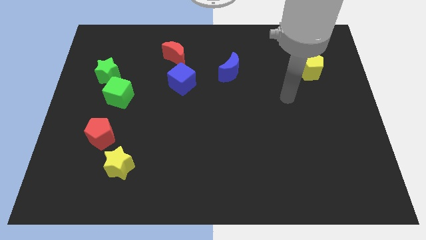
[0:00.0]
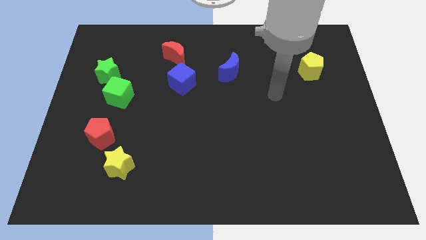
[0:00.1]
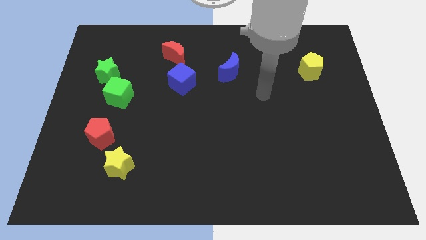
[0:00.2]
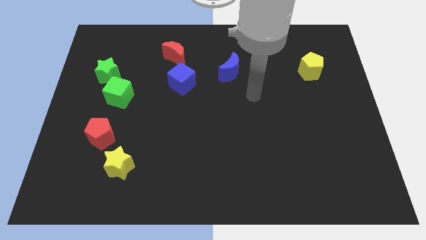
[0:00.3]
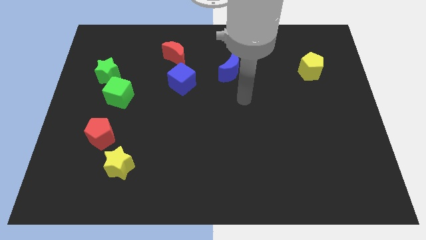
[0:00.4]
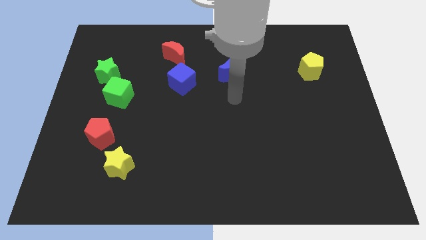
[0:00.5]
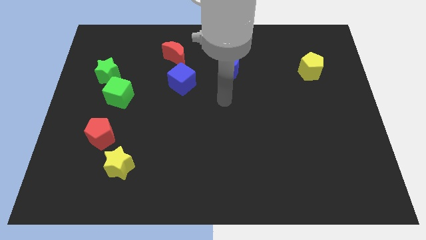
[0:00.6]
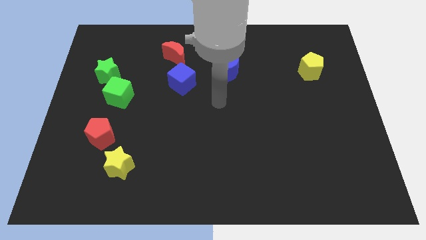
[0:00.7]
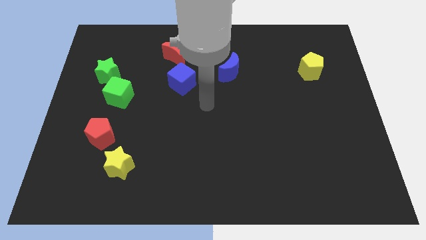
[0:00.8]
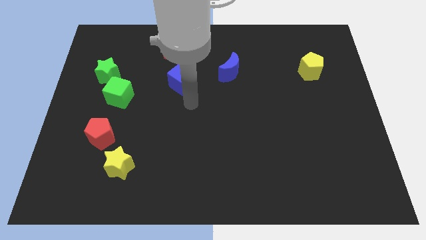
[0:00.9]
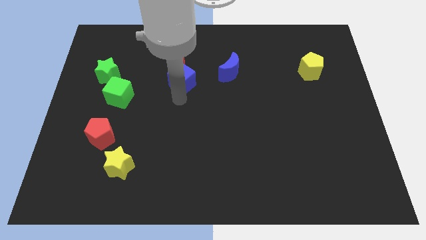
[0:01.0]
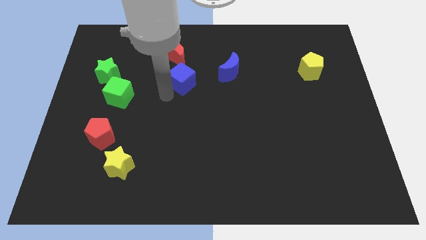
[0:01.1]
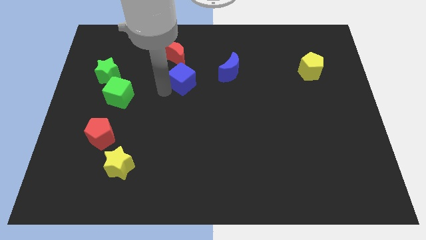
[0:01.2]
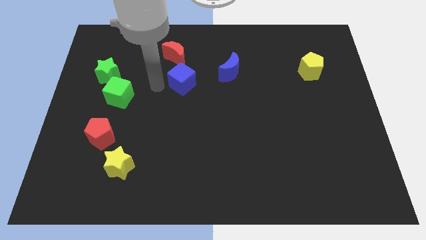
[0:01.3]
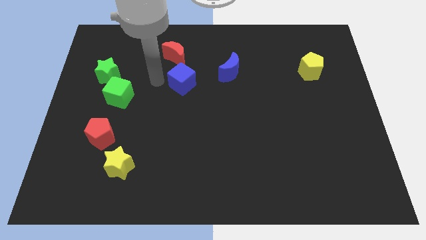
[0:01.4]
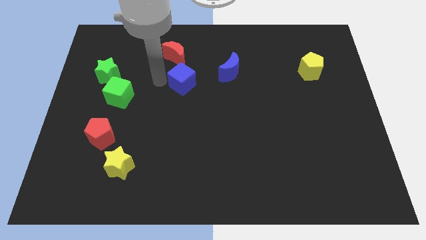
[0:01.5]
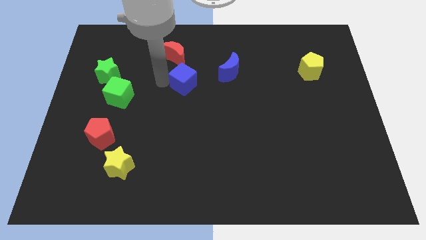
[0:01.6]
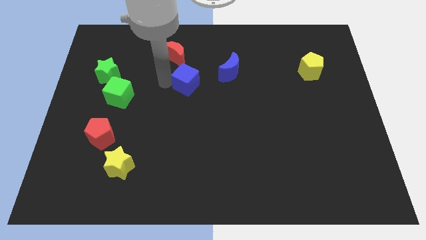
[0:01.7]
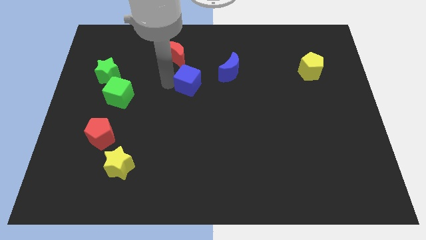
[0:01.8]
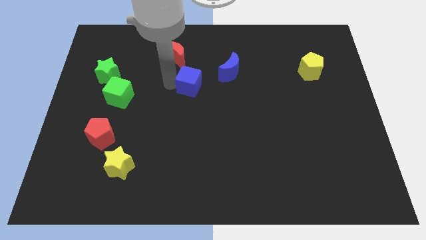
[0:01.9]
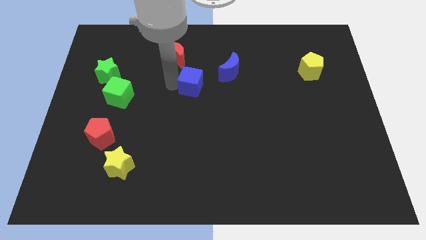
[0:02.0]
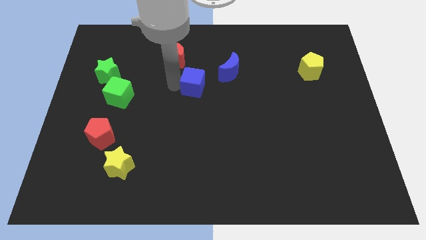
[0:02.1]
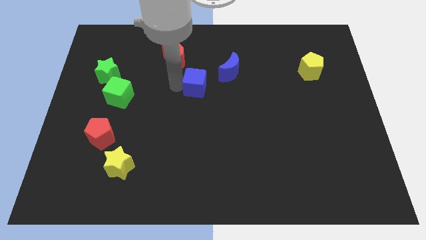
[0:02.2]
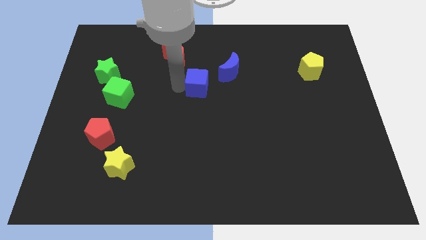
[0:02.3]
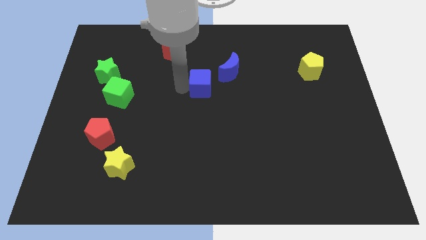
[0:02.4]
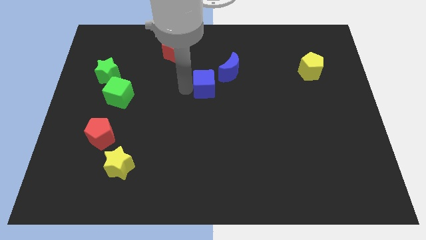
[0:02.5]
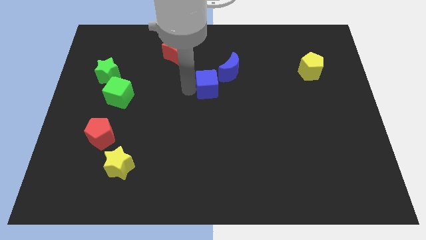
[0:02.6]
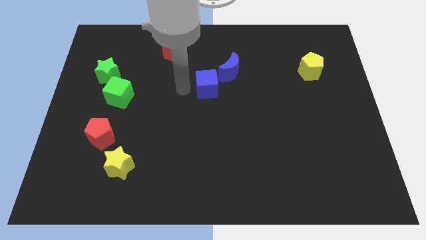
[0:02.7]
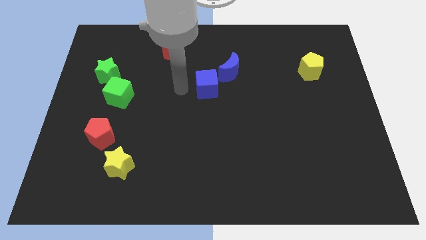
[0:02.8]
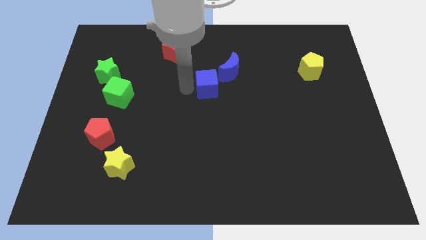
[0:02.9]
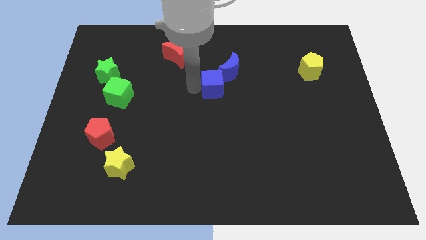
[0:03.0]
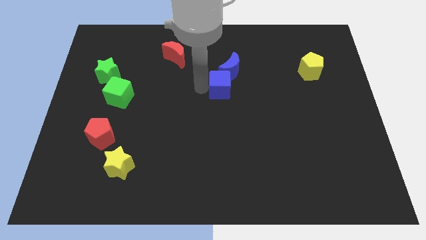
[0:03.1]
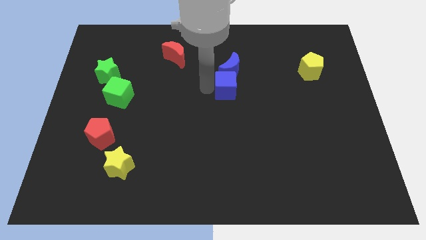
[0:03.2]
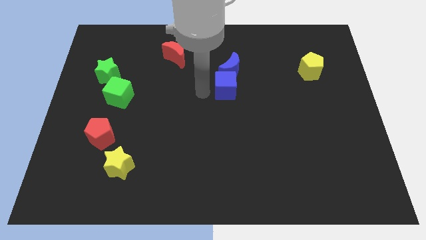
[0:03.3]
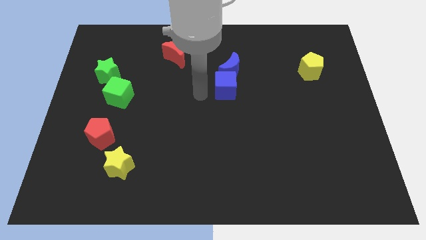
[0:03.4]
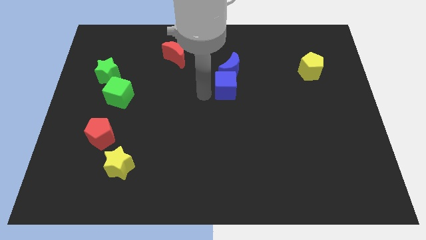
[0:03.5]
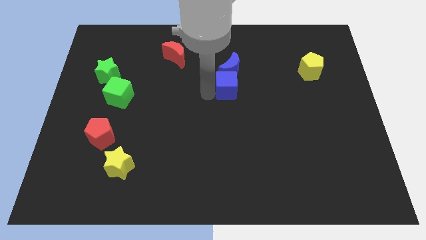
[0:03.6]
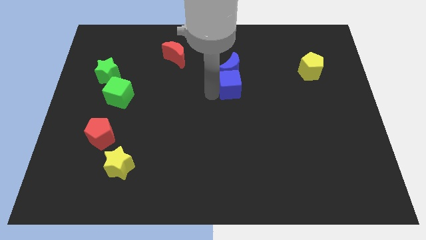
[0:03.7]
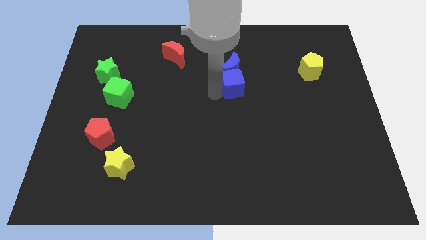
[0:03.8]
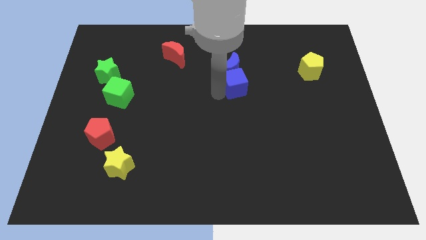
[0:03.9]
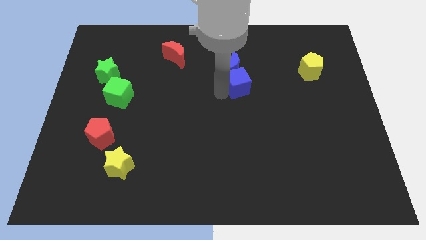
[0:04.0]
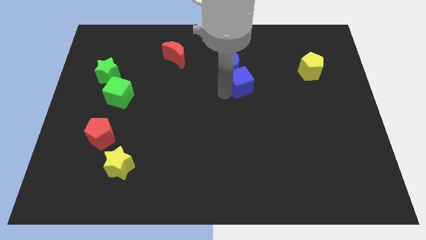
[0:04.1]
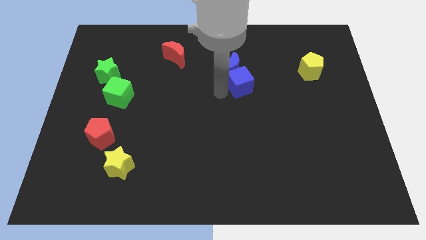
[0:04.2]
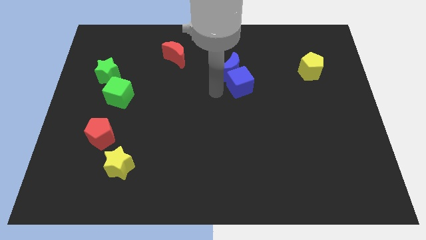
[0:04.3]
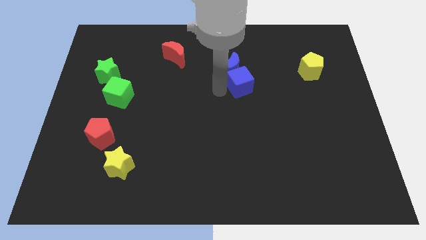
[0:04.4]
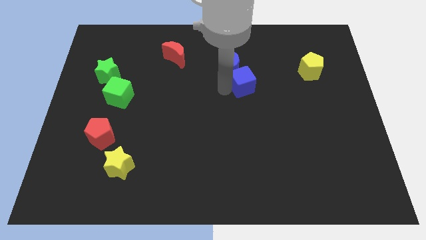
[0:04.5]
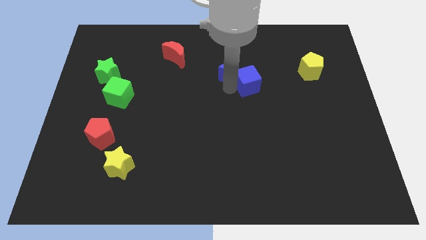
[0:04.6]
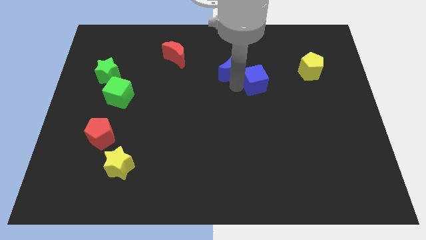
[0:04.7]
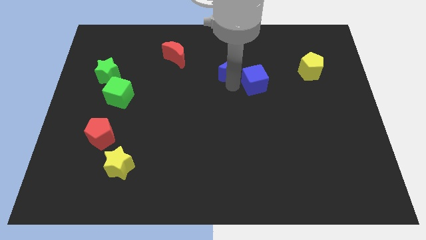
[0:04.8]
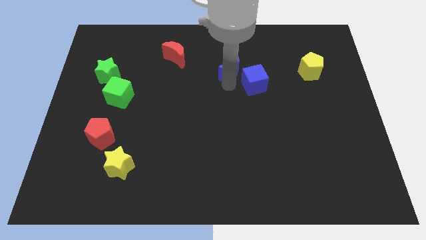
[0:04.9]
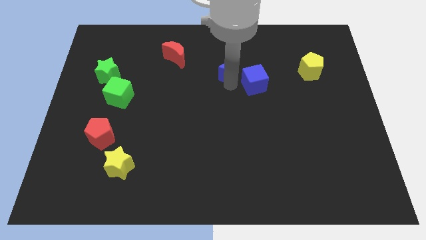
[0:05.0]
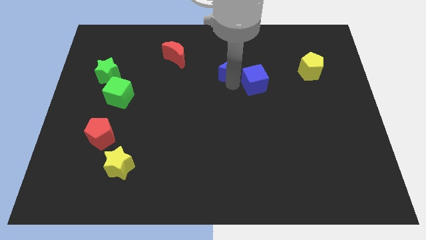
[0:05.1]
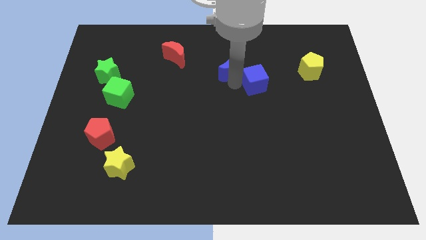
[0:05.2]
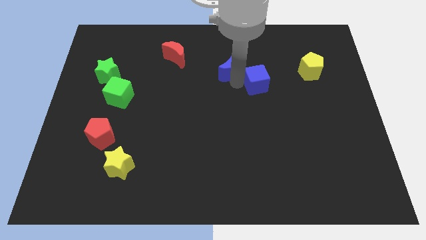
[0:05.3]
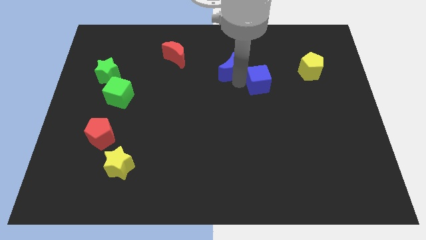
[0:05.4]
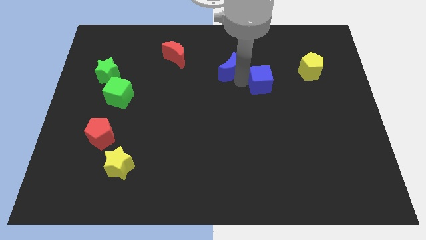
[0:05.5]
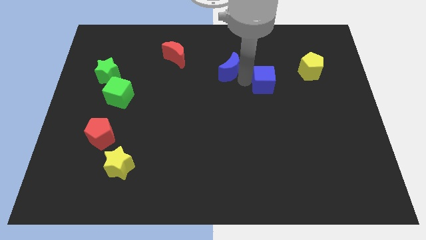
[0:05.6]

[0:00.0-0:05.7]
push the blue cube right

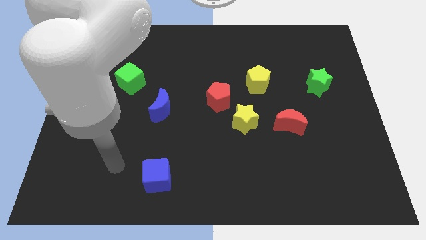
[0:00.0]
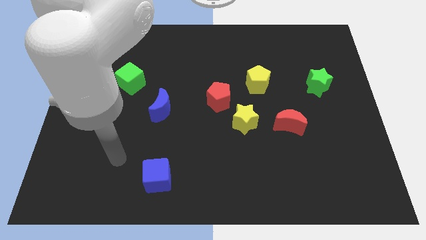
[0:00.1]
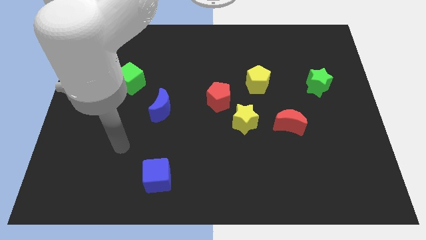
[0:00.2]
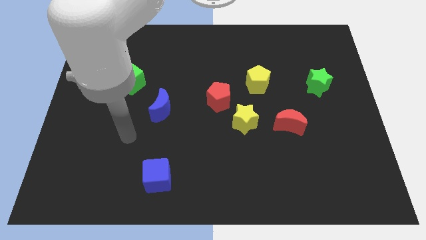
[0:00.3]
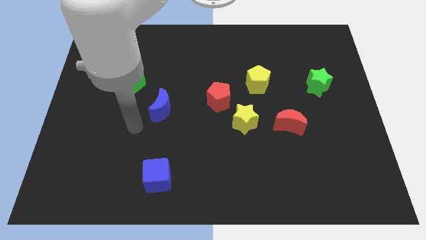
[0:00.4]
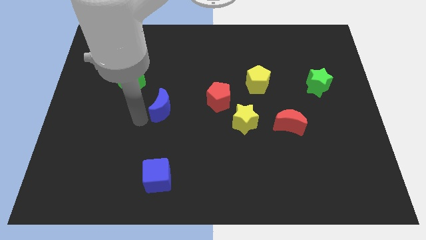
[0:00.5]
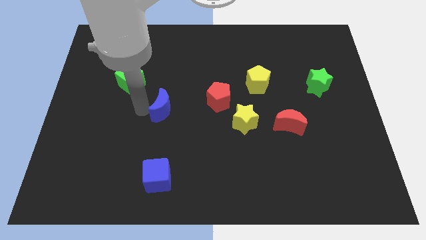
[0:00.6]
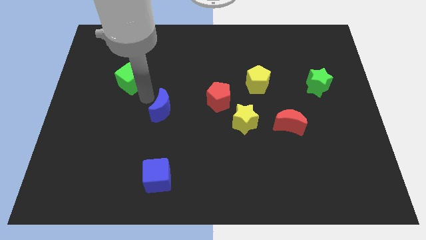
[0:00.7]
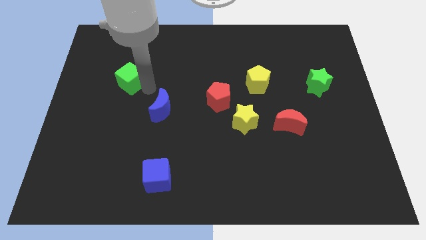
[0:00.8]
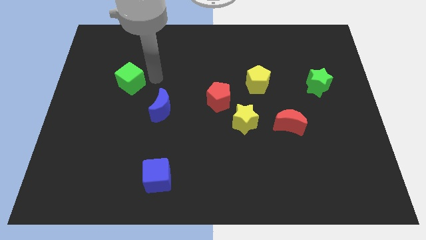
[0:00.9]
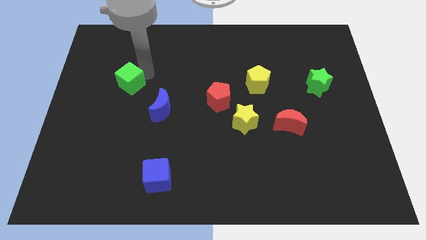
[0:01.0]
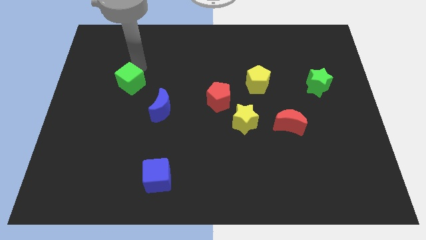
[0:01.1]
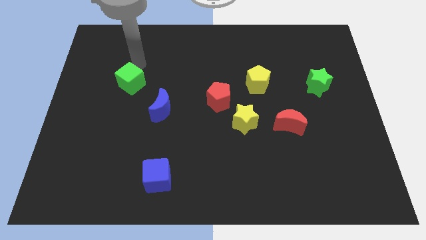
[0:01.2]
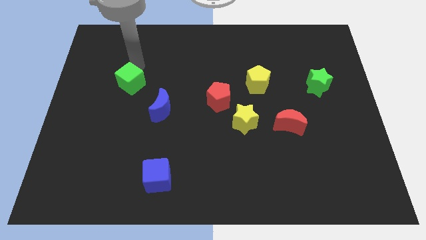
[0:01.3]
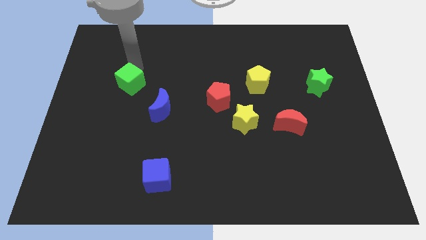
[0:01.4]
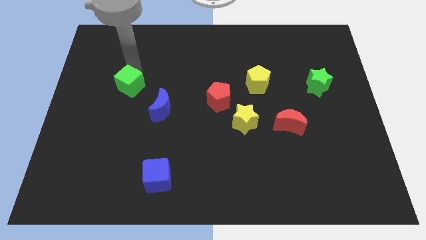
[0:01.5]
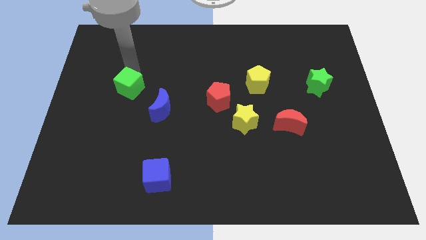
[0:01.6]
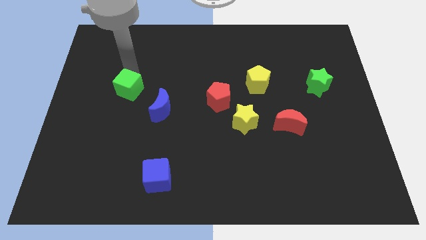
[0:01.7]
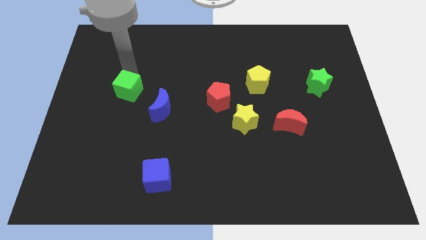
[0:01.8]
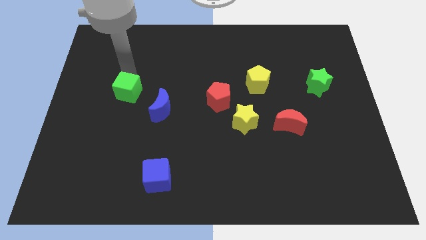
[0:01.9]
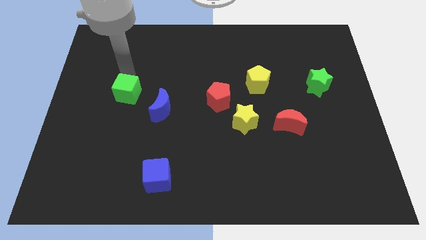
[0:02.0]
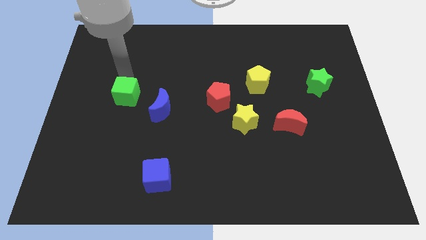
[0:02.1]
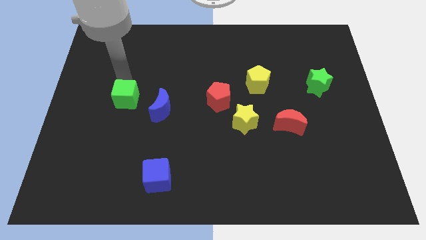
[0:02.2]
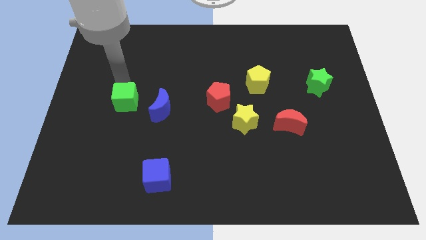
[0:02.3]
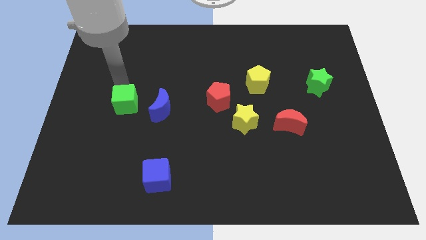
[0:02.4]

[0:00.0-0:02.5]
slide the green cube slightly down
